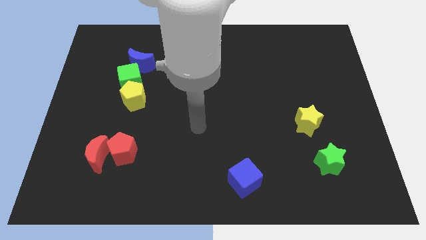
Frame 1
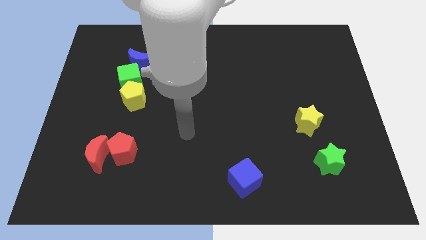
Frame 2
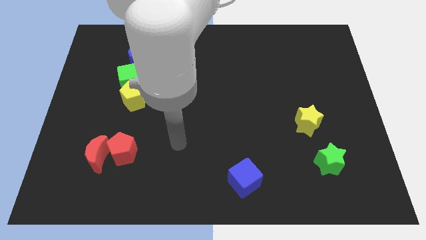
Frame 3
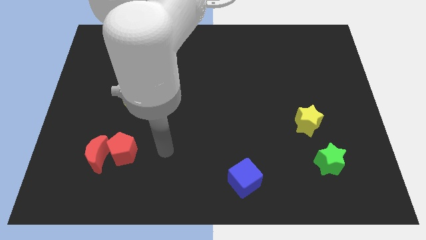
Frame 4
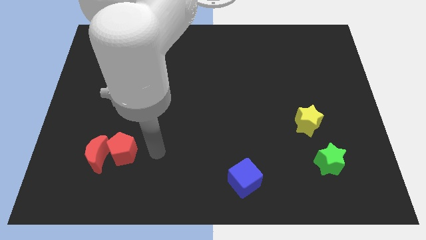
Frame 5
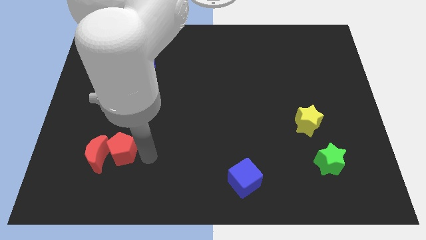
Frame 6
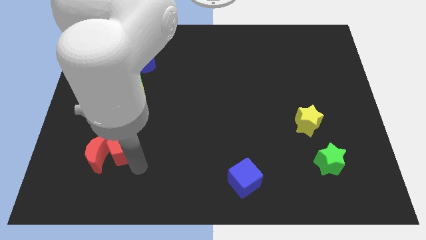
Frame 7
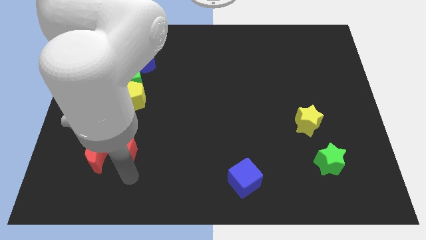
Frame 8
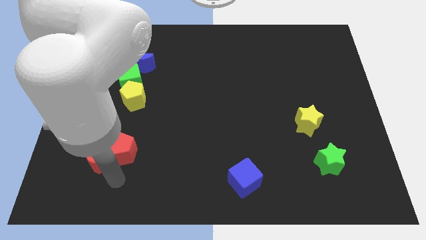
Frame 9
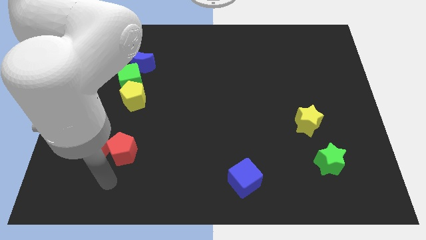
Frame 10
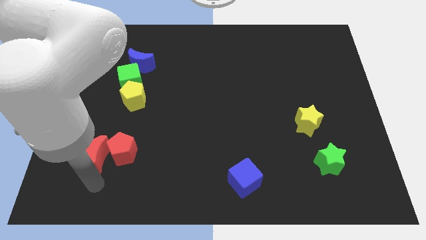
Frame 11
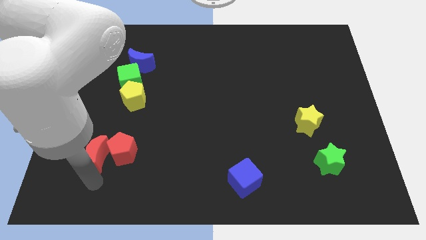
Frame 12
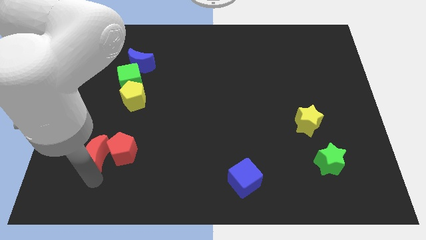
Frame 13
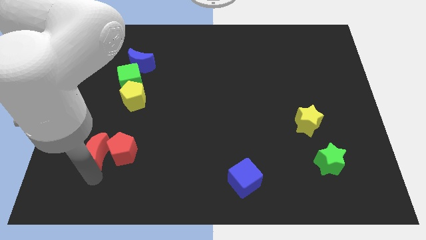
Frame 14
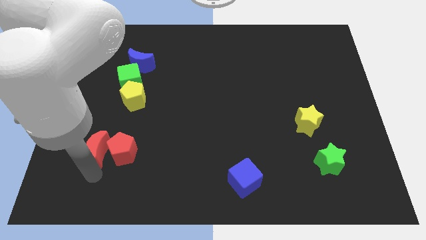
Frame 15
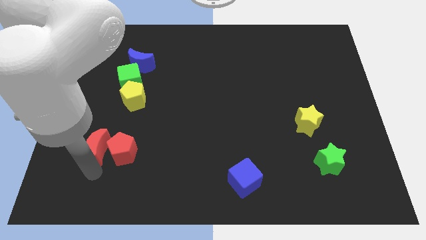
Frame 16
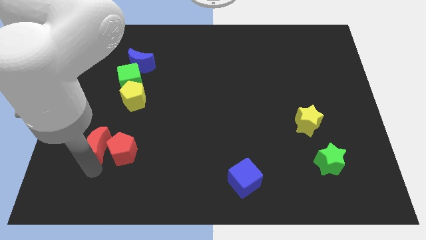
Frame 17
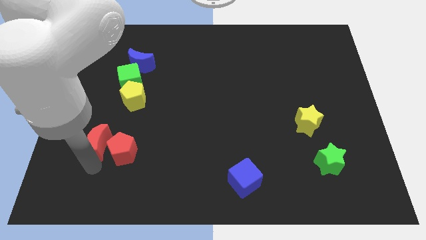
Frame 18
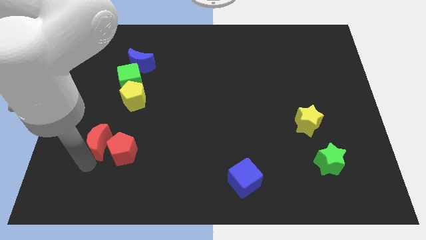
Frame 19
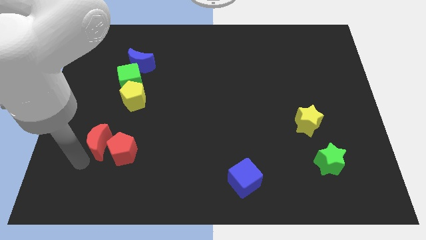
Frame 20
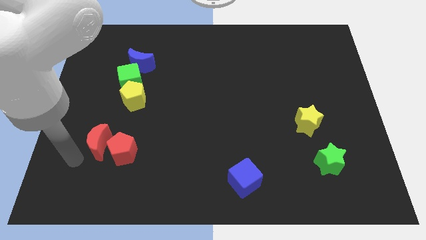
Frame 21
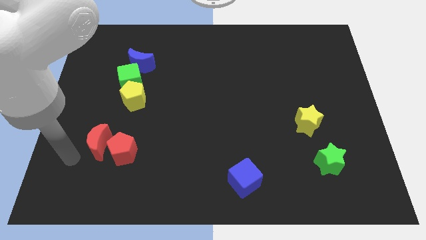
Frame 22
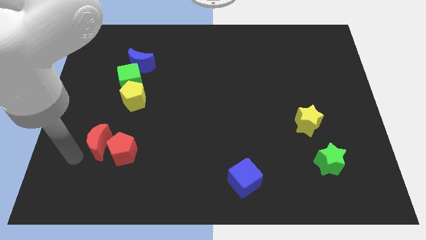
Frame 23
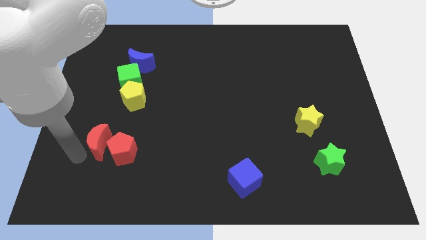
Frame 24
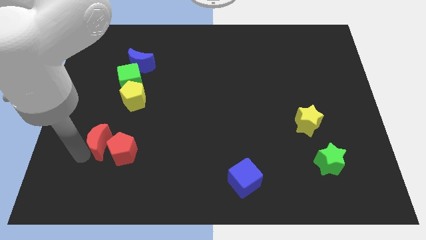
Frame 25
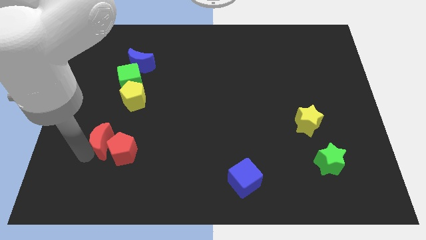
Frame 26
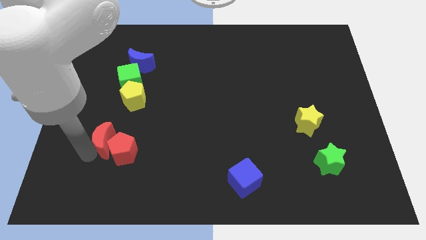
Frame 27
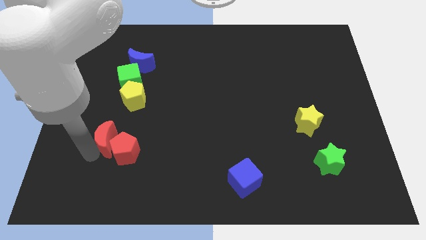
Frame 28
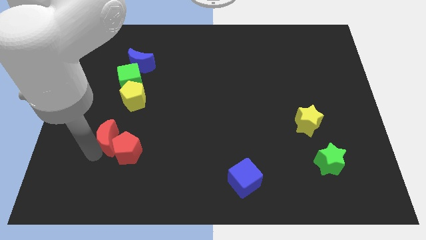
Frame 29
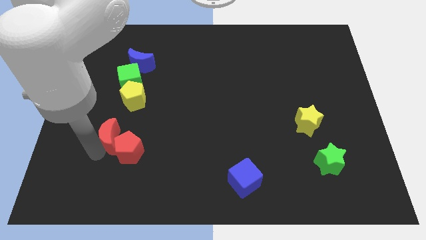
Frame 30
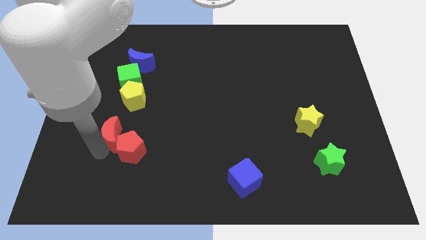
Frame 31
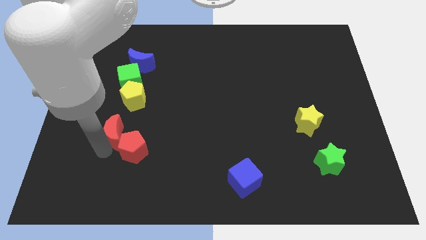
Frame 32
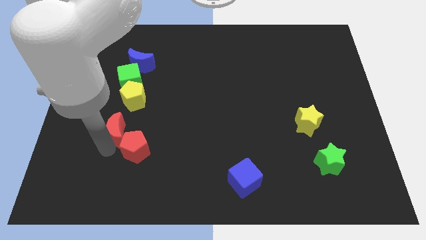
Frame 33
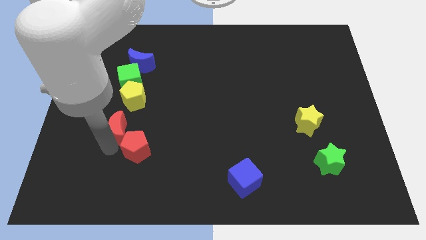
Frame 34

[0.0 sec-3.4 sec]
slide the red moon upwards and to the right a little bit

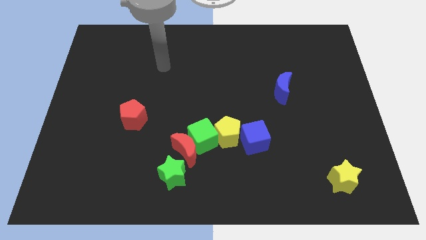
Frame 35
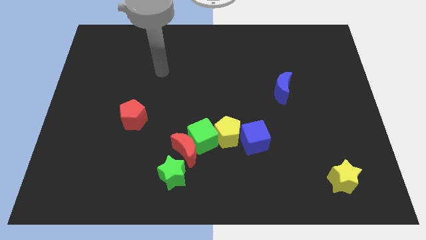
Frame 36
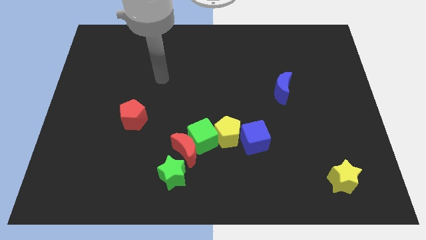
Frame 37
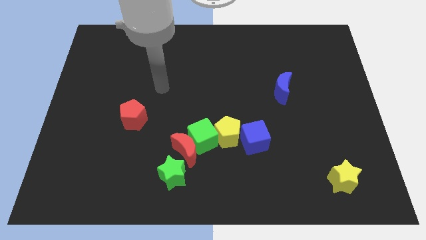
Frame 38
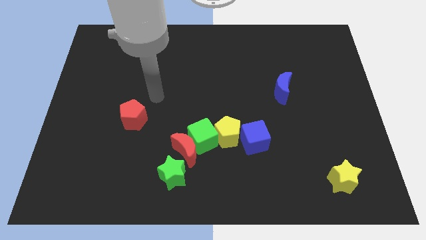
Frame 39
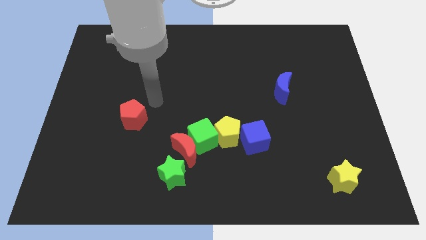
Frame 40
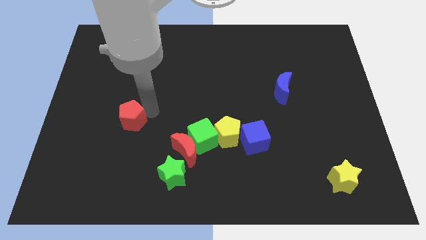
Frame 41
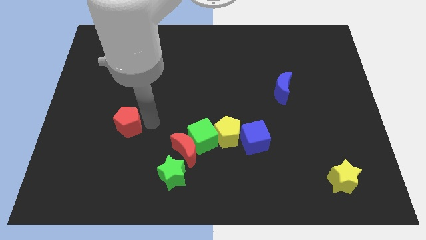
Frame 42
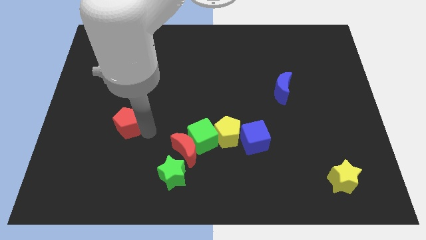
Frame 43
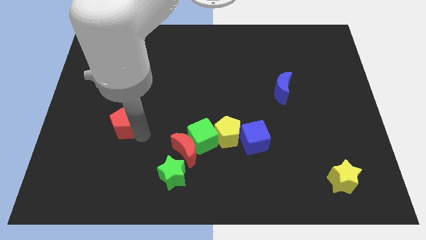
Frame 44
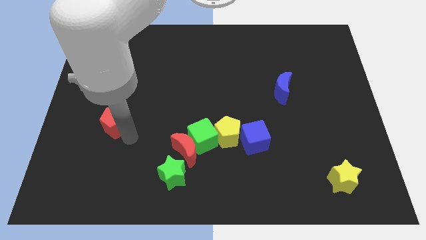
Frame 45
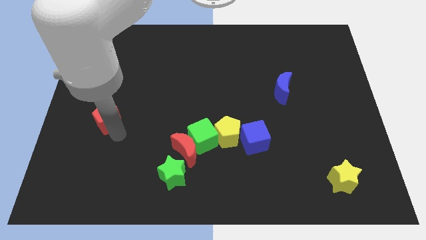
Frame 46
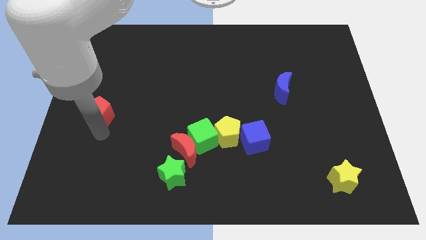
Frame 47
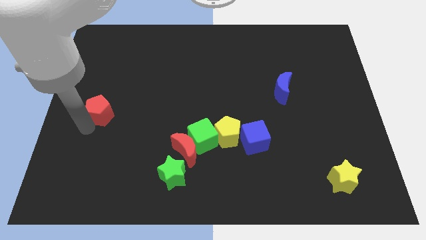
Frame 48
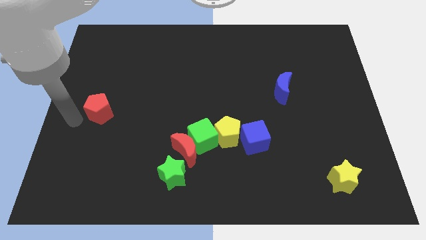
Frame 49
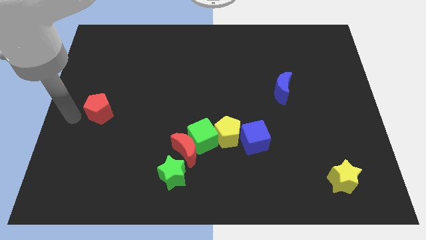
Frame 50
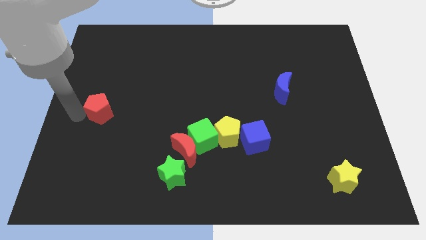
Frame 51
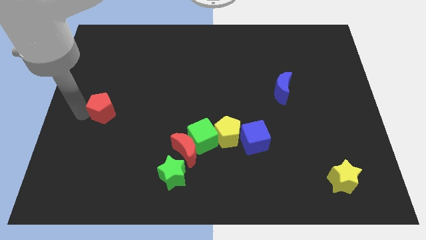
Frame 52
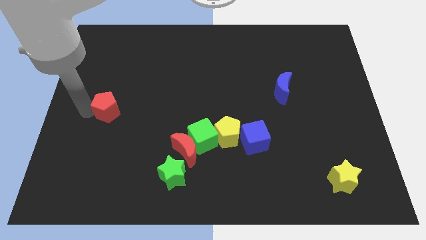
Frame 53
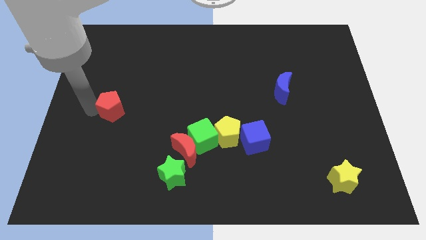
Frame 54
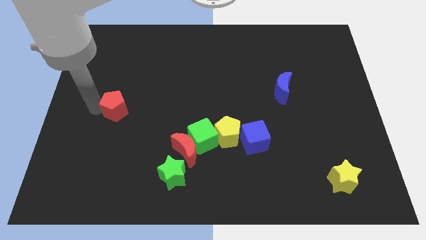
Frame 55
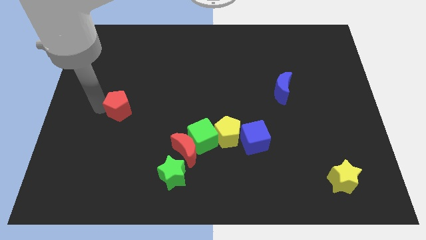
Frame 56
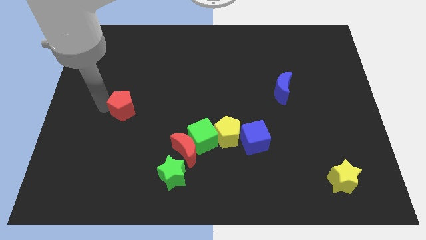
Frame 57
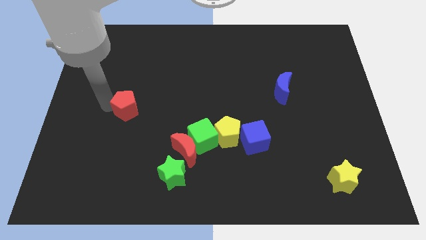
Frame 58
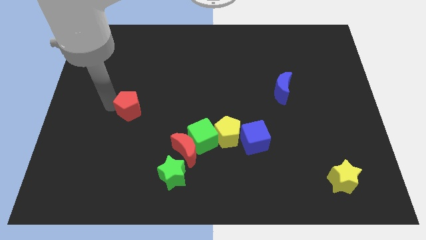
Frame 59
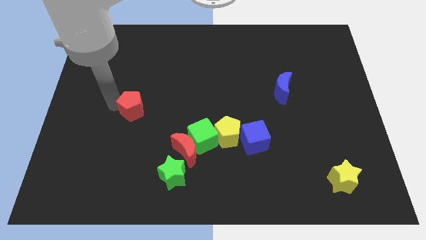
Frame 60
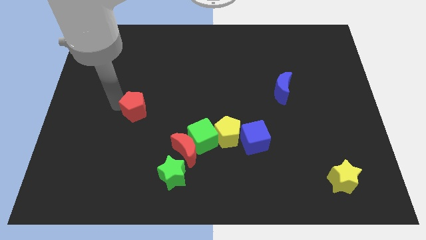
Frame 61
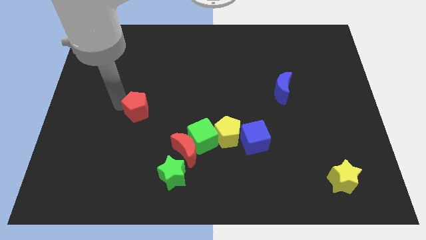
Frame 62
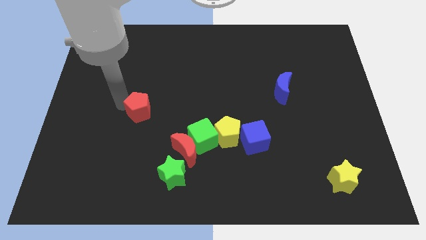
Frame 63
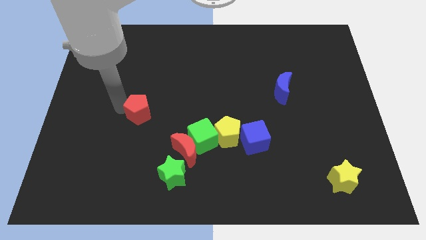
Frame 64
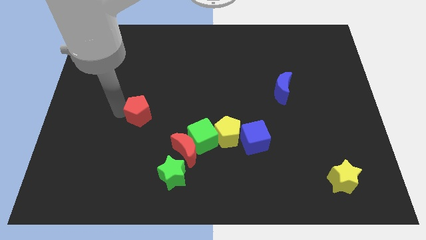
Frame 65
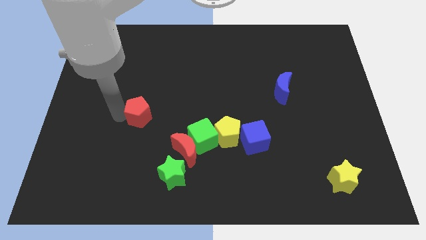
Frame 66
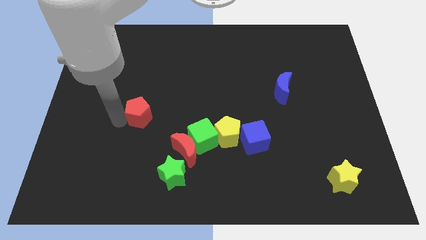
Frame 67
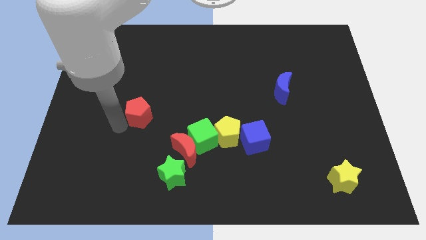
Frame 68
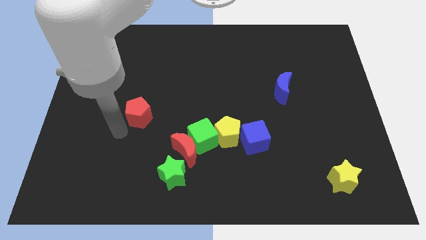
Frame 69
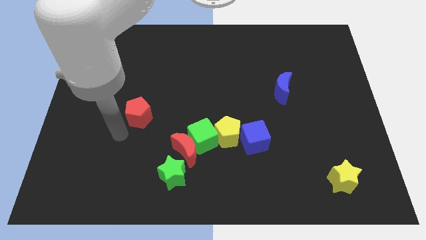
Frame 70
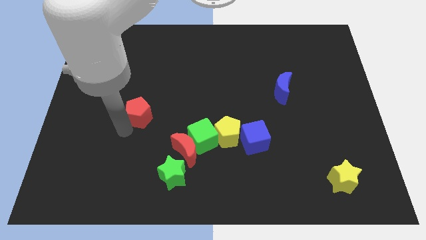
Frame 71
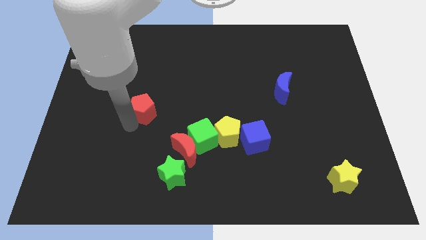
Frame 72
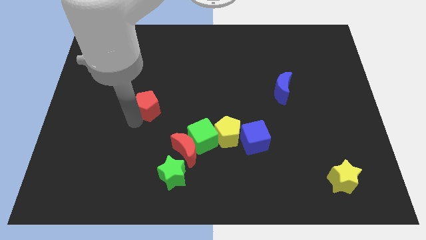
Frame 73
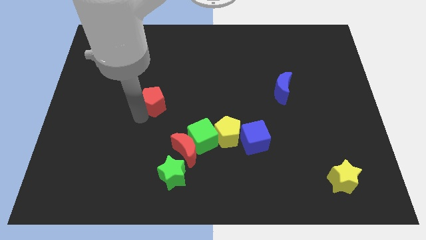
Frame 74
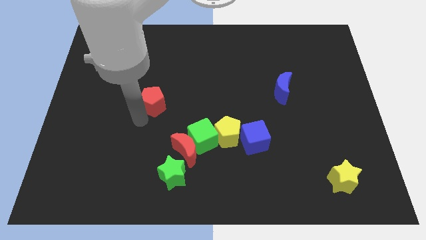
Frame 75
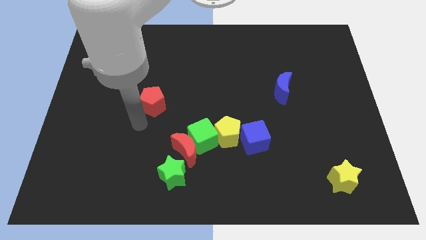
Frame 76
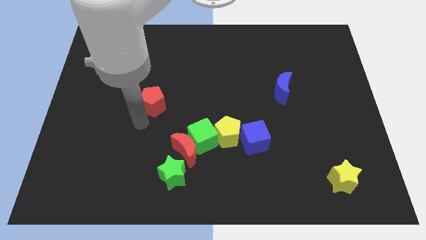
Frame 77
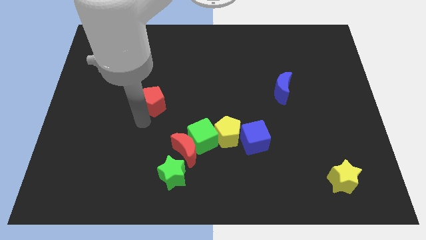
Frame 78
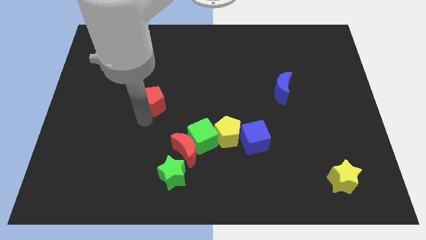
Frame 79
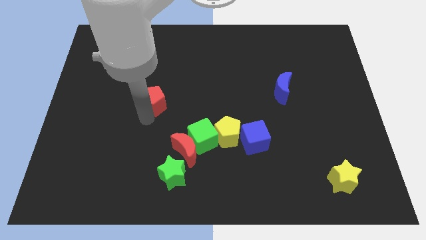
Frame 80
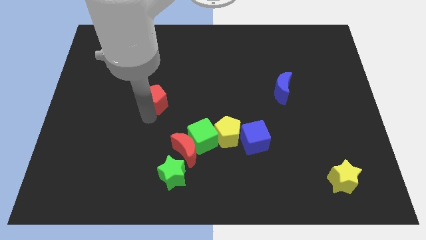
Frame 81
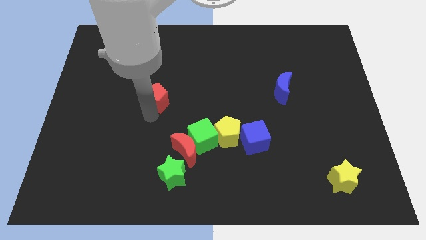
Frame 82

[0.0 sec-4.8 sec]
slide the red pentagon up and to the right somewhat

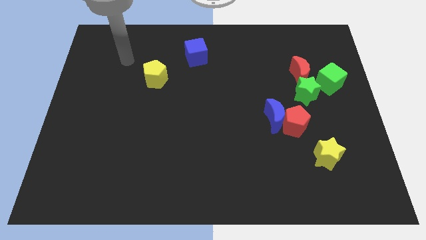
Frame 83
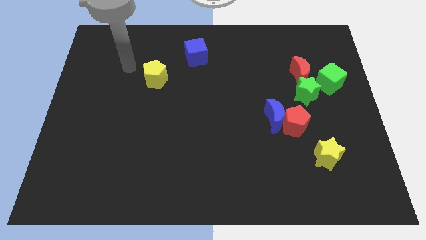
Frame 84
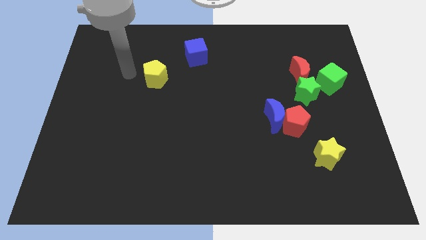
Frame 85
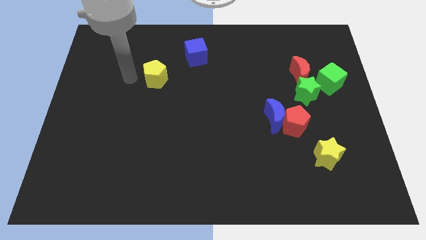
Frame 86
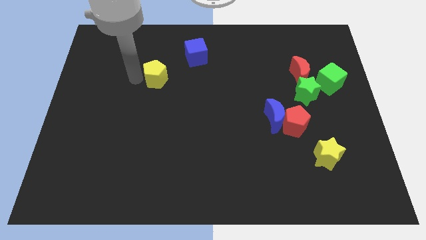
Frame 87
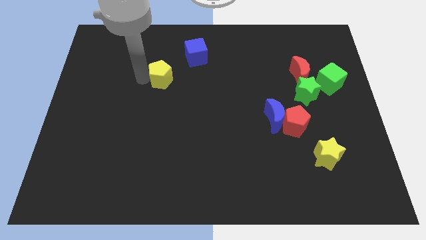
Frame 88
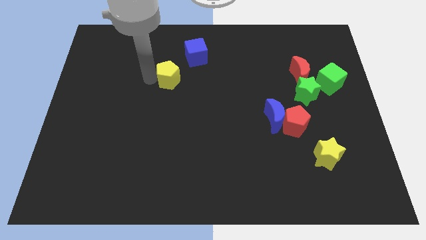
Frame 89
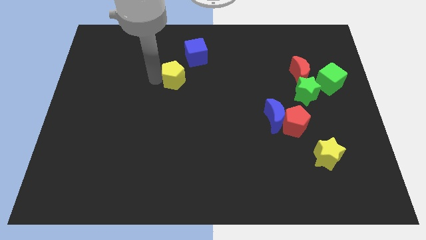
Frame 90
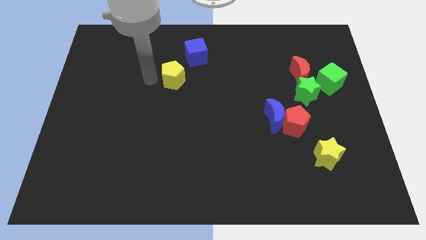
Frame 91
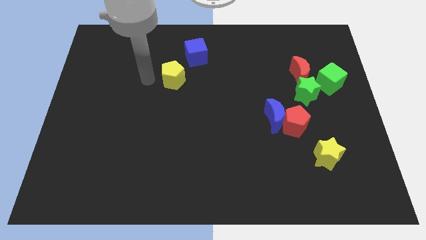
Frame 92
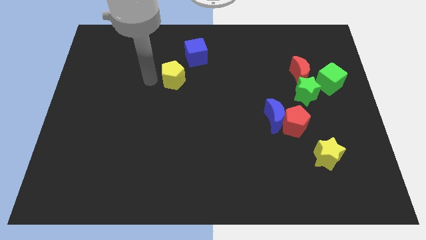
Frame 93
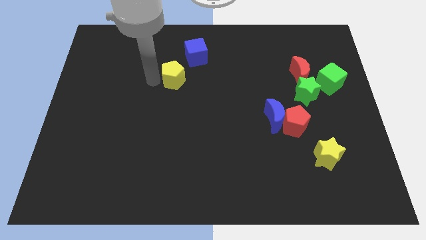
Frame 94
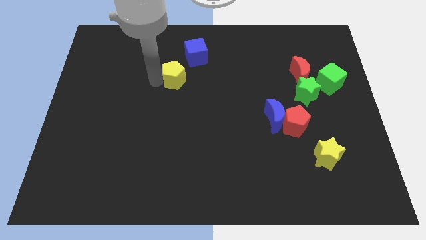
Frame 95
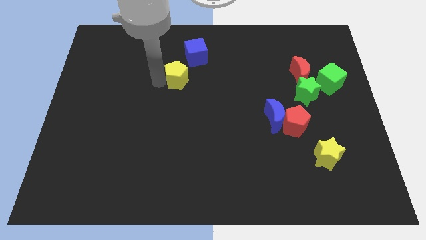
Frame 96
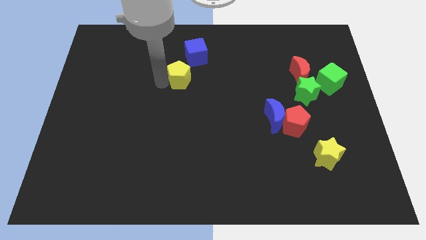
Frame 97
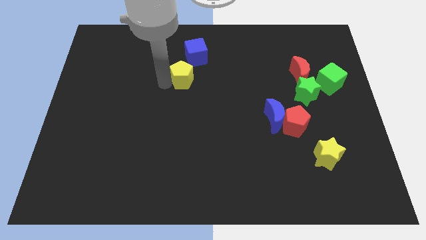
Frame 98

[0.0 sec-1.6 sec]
push the yellow pentagon to the right a little
